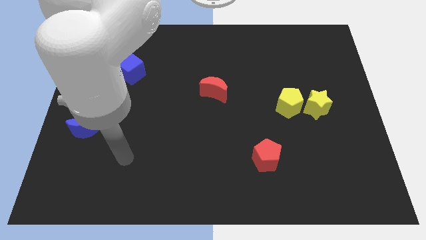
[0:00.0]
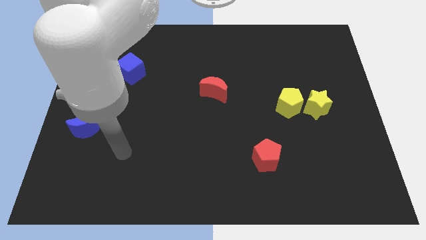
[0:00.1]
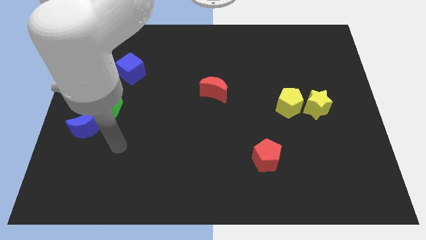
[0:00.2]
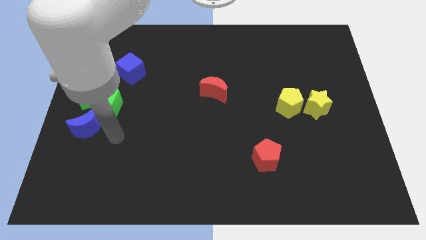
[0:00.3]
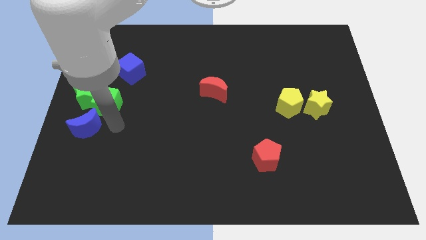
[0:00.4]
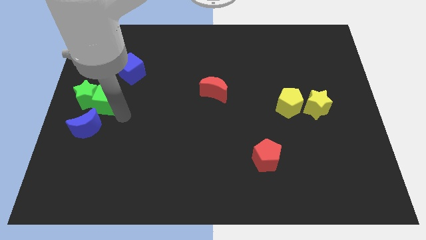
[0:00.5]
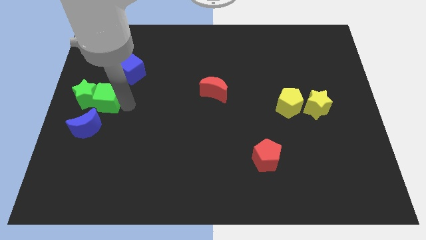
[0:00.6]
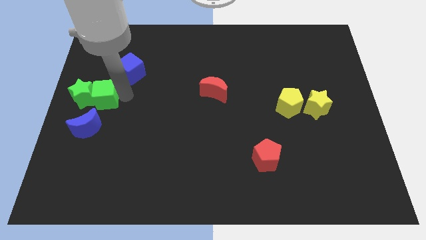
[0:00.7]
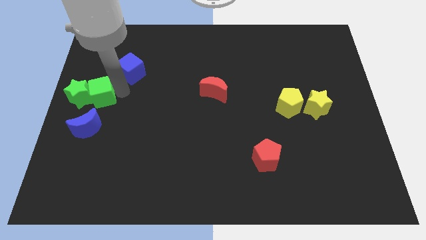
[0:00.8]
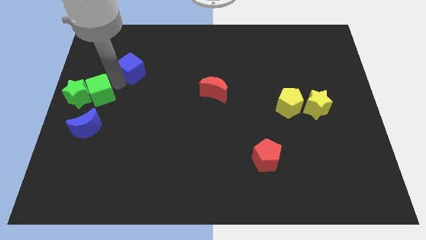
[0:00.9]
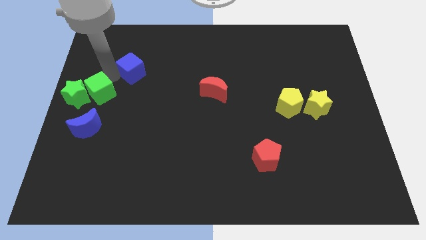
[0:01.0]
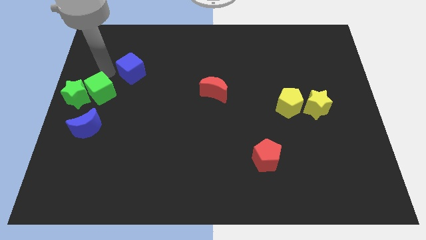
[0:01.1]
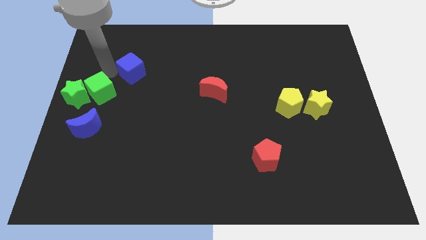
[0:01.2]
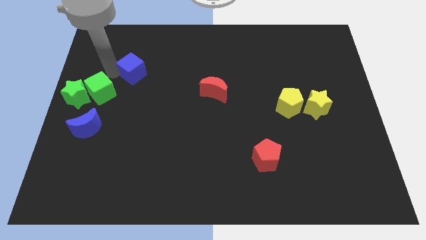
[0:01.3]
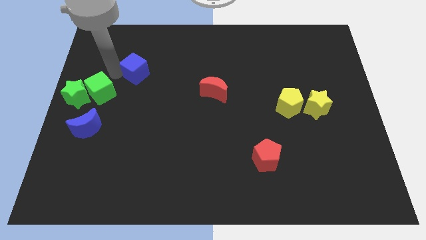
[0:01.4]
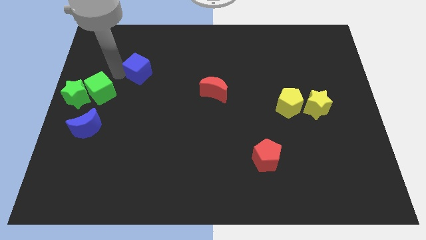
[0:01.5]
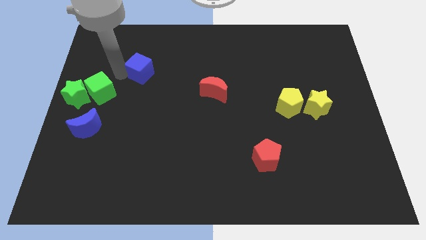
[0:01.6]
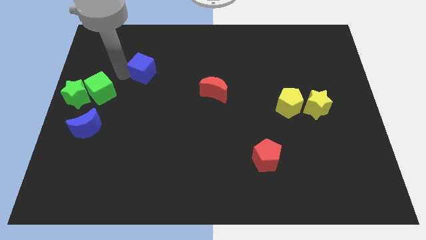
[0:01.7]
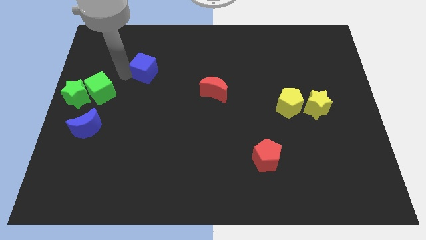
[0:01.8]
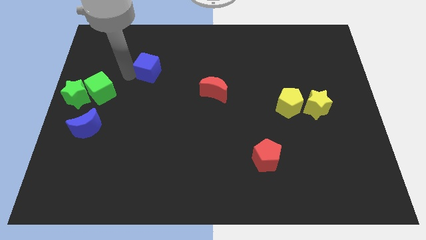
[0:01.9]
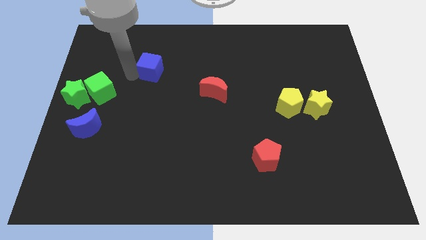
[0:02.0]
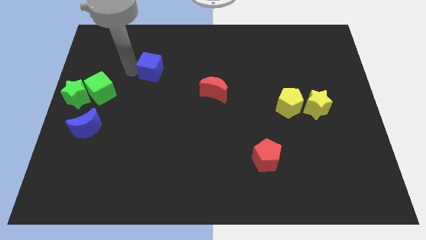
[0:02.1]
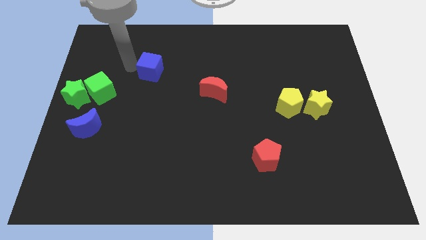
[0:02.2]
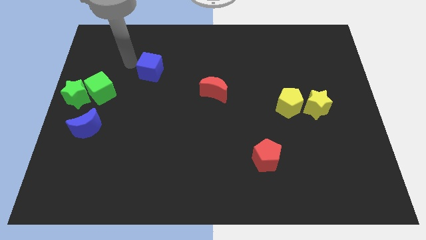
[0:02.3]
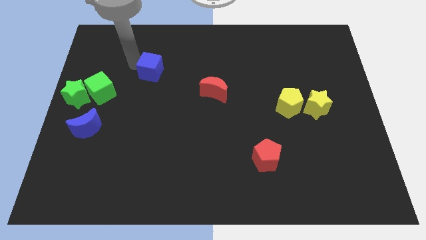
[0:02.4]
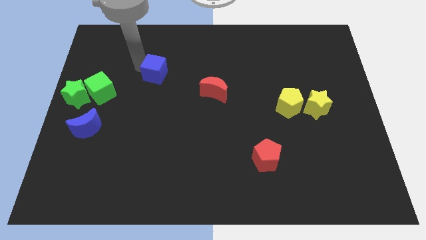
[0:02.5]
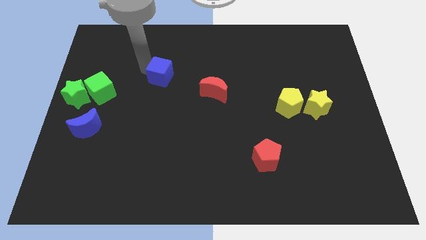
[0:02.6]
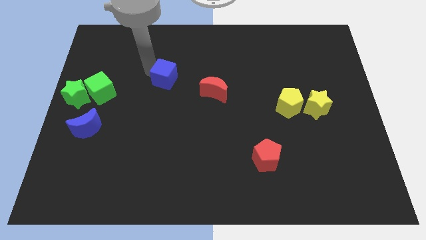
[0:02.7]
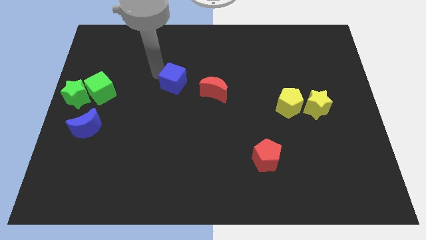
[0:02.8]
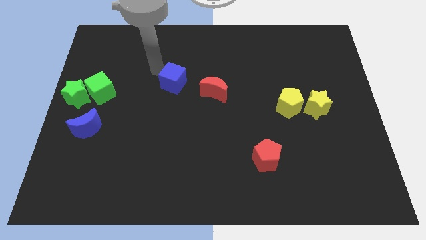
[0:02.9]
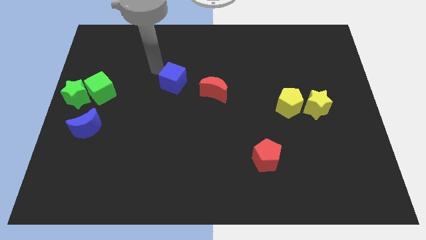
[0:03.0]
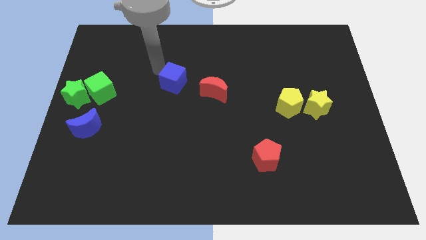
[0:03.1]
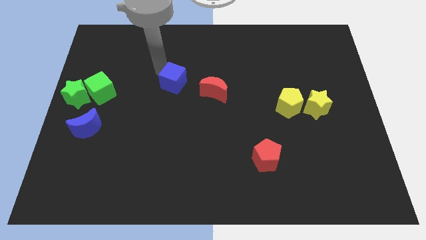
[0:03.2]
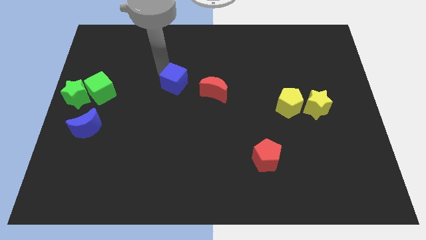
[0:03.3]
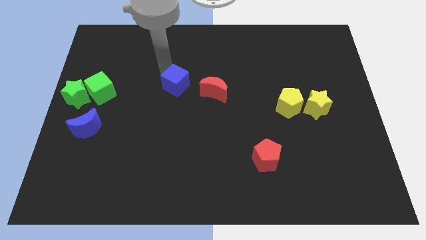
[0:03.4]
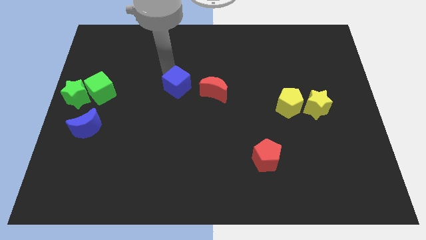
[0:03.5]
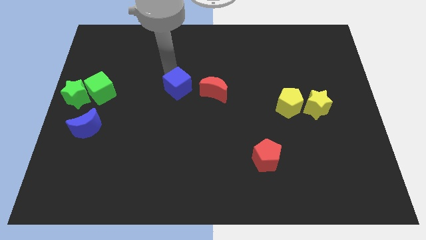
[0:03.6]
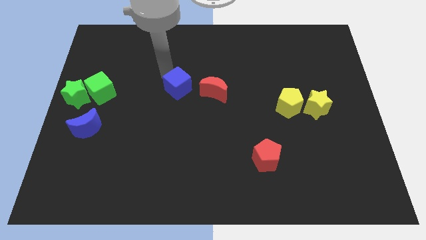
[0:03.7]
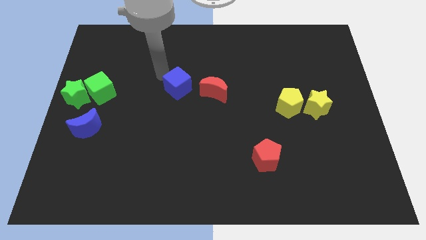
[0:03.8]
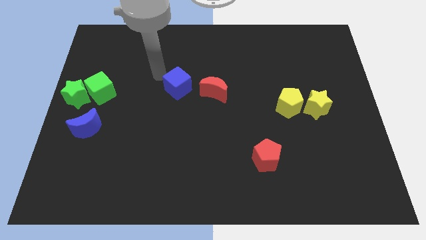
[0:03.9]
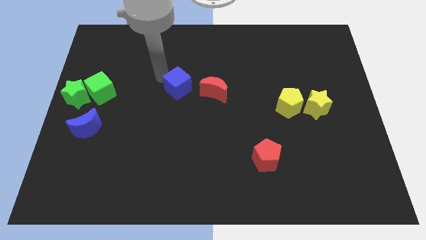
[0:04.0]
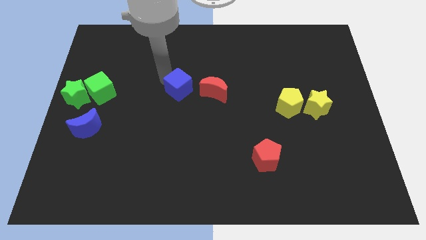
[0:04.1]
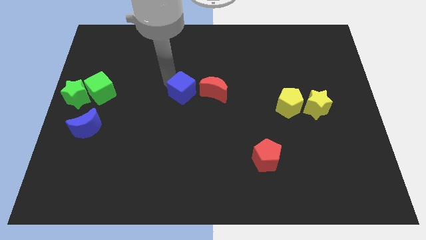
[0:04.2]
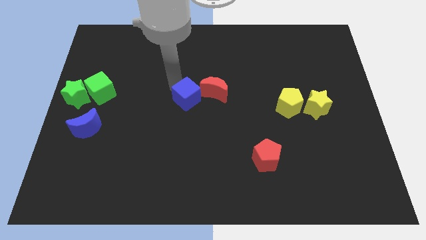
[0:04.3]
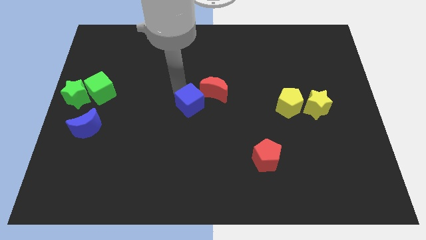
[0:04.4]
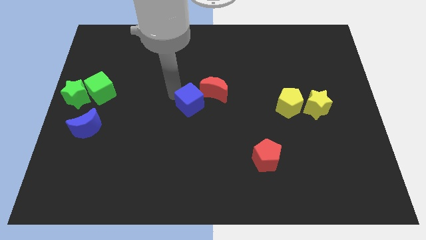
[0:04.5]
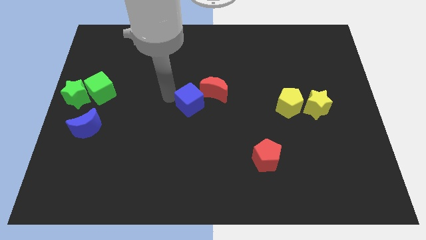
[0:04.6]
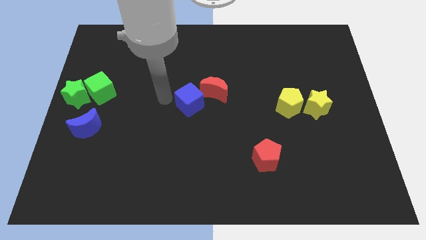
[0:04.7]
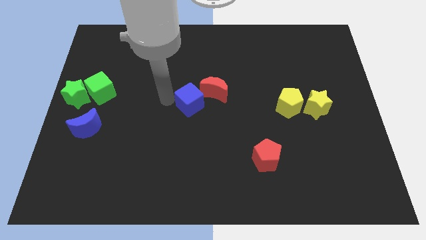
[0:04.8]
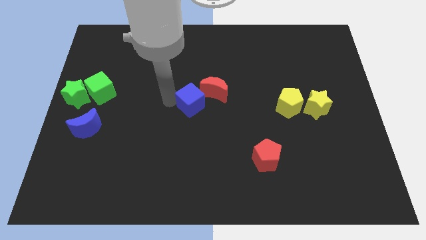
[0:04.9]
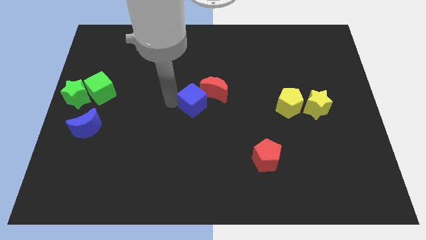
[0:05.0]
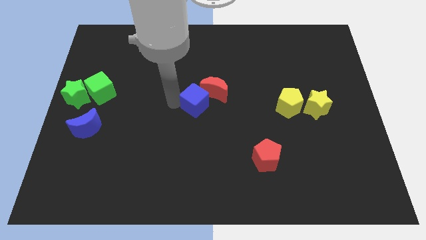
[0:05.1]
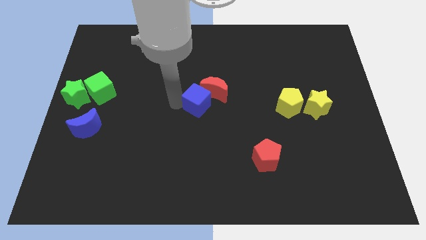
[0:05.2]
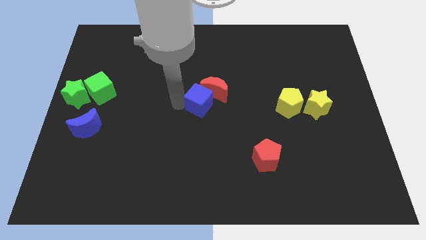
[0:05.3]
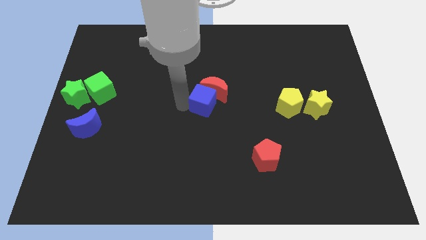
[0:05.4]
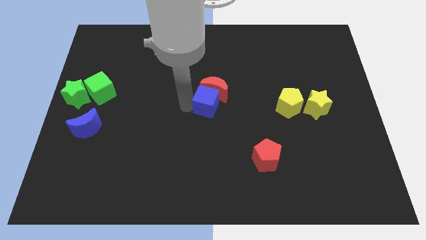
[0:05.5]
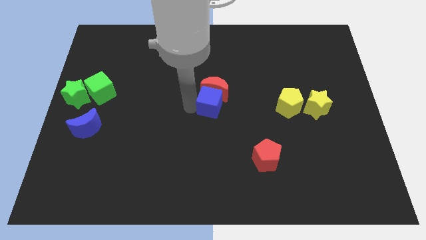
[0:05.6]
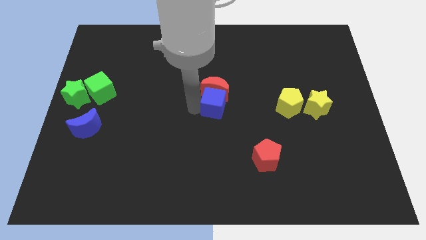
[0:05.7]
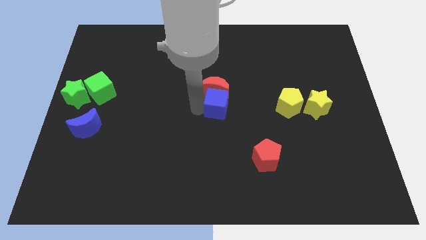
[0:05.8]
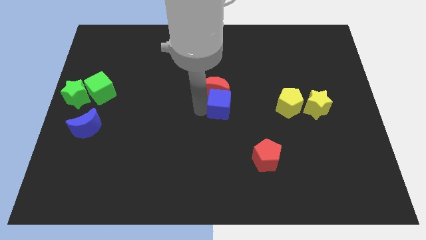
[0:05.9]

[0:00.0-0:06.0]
put the blue cube just left of the yellow pentagon

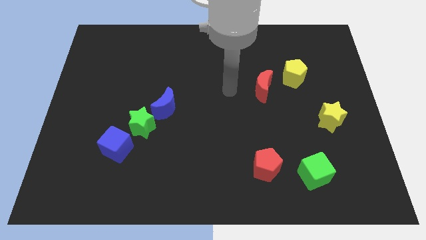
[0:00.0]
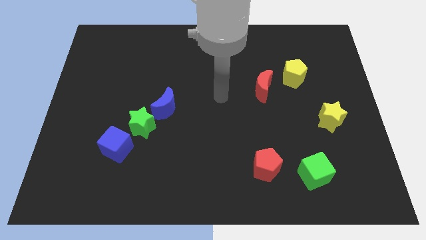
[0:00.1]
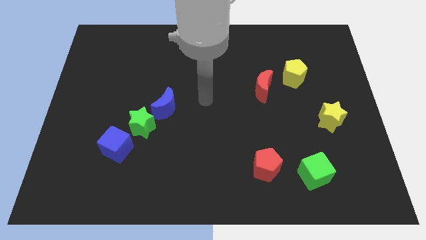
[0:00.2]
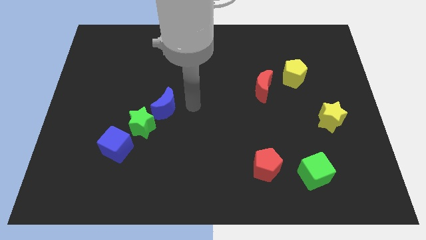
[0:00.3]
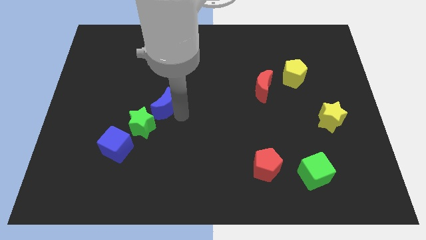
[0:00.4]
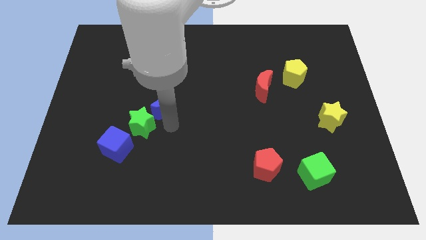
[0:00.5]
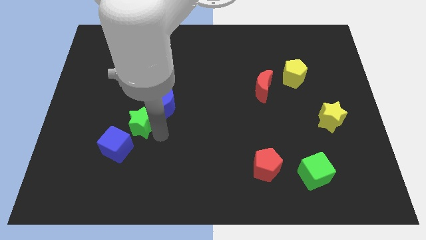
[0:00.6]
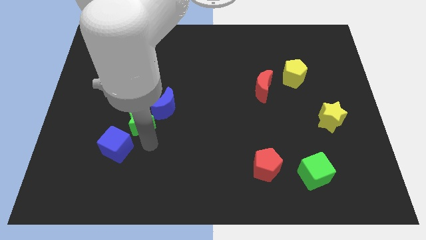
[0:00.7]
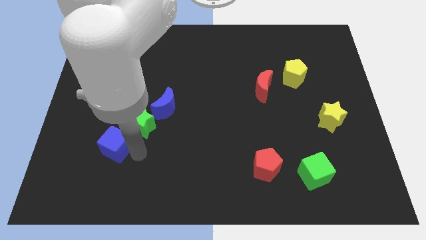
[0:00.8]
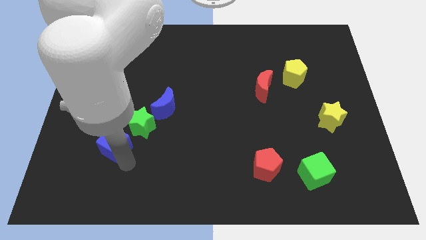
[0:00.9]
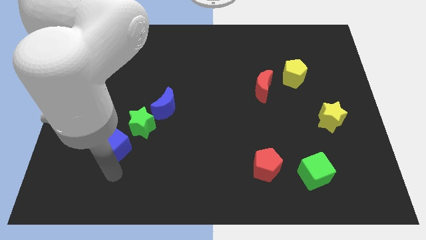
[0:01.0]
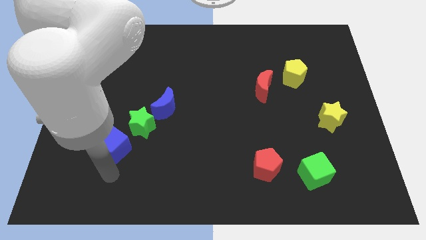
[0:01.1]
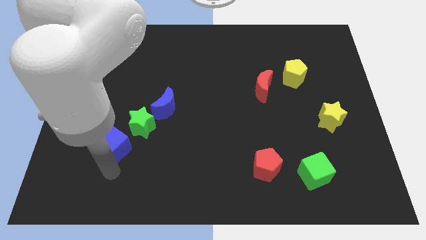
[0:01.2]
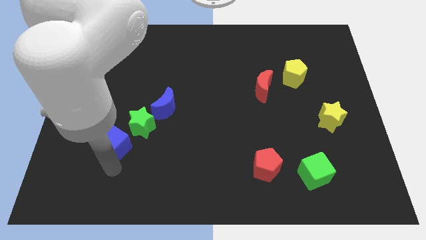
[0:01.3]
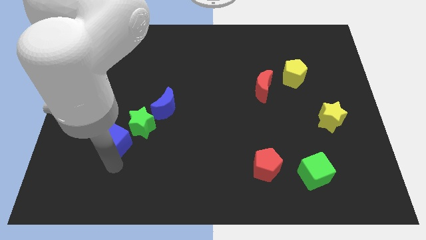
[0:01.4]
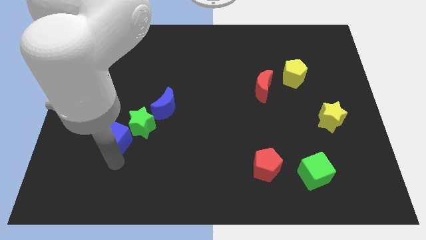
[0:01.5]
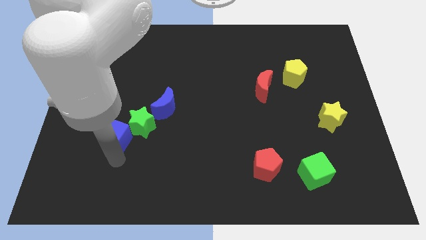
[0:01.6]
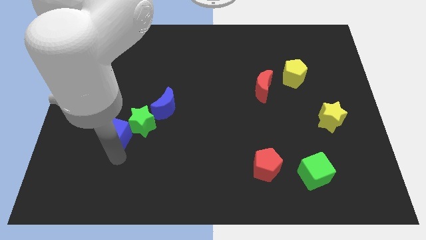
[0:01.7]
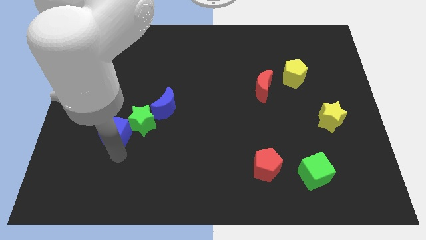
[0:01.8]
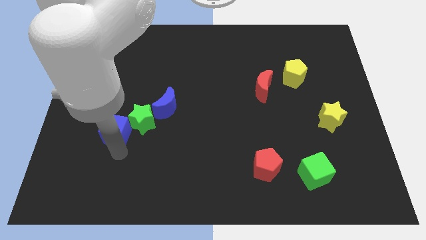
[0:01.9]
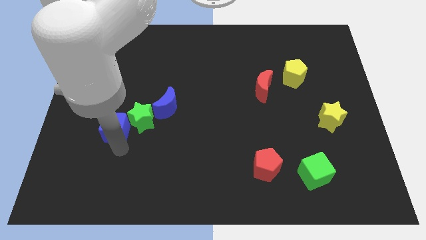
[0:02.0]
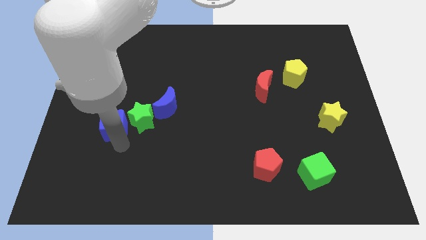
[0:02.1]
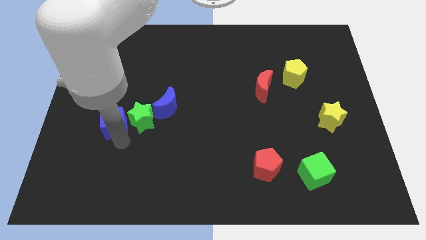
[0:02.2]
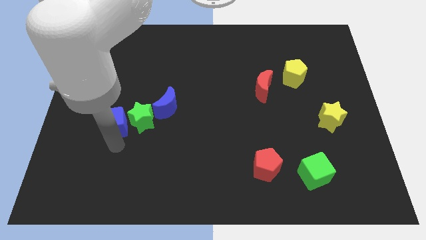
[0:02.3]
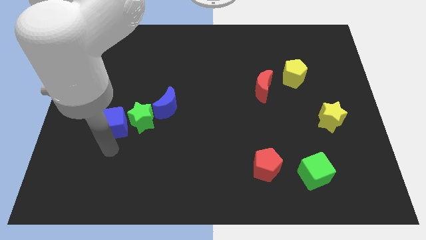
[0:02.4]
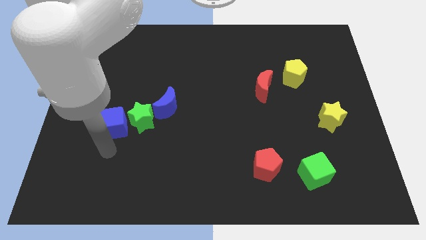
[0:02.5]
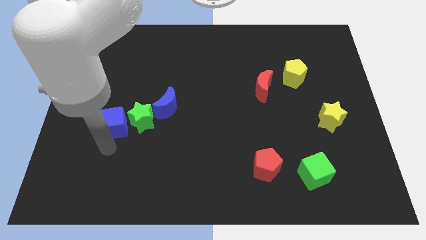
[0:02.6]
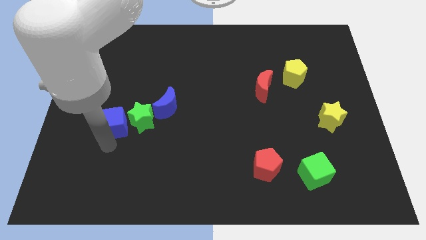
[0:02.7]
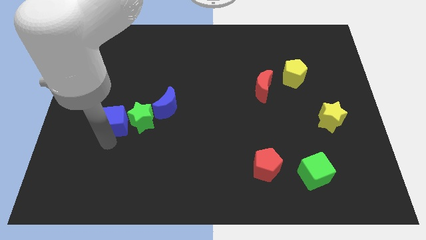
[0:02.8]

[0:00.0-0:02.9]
slide the blue cube diagonally up and to the left of the green star
